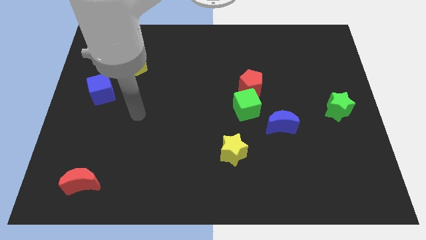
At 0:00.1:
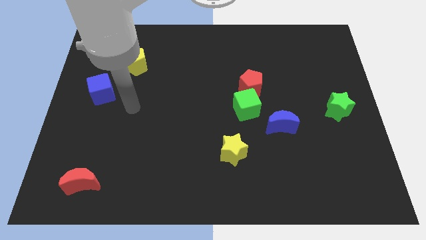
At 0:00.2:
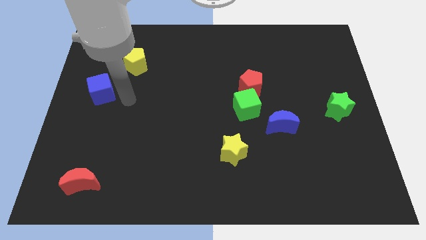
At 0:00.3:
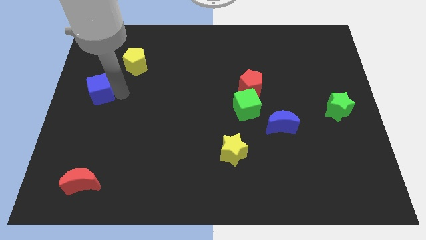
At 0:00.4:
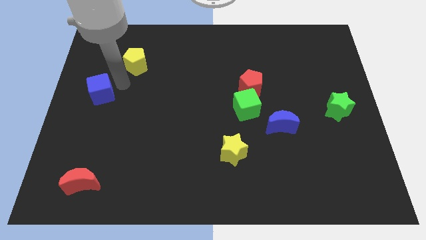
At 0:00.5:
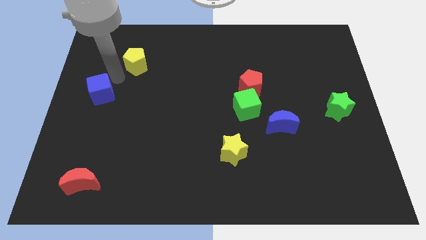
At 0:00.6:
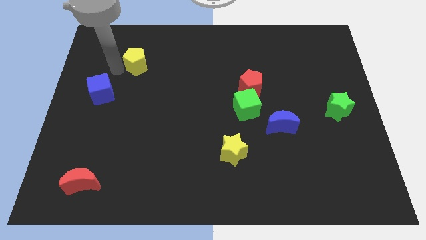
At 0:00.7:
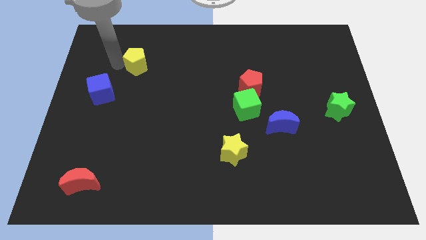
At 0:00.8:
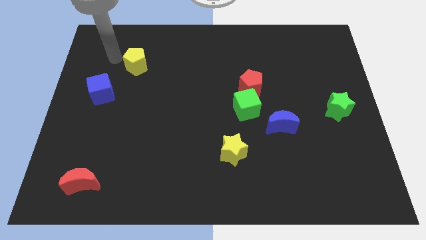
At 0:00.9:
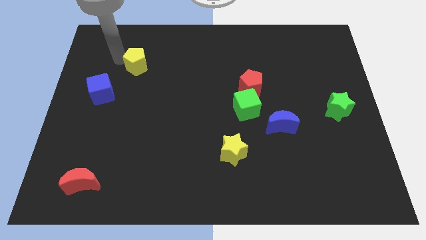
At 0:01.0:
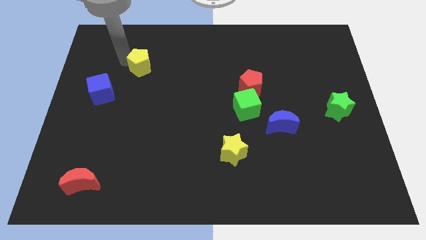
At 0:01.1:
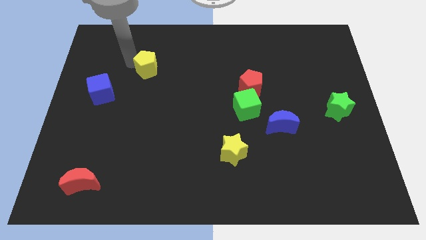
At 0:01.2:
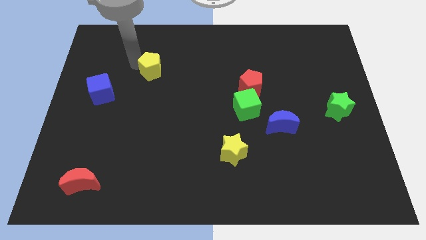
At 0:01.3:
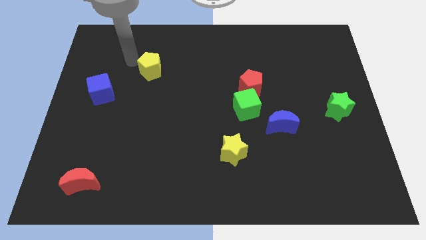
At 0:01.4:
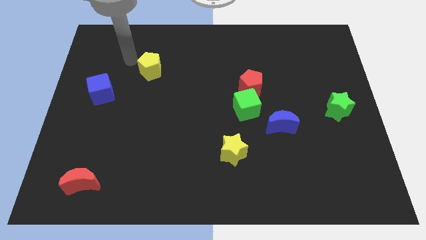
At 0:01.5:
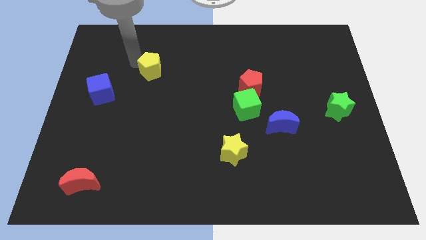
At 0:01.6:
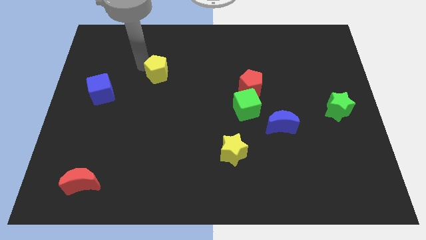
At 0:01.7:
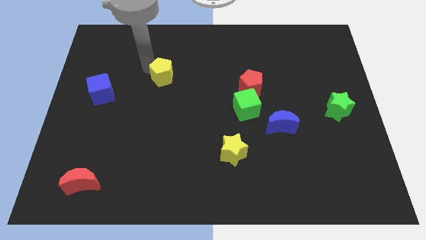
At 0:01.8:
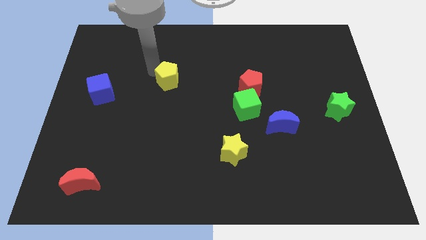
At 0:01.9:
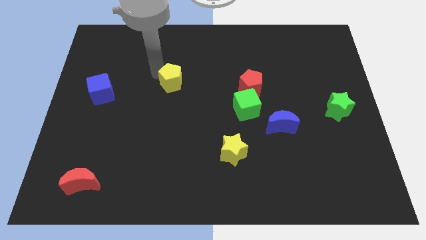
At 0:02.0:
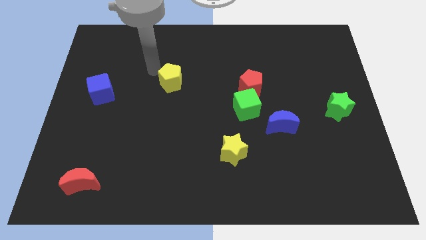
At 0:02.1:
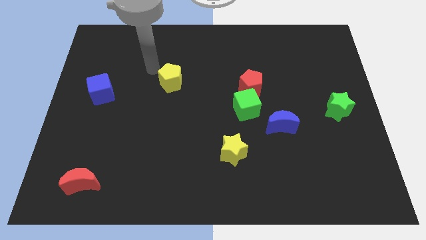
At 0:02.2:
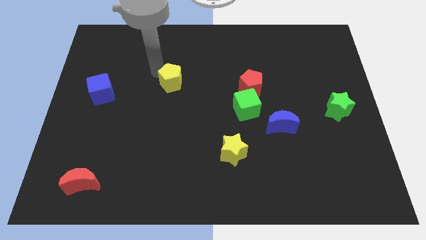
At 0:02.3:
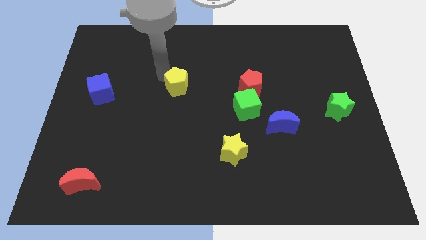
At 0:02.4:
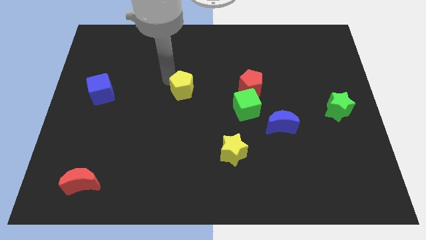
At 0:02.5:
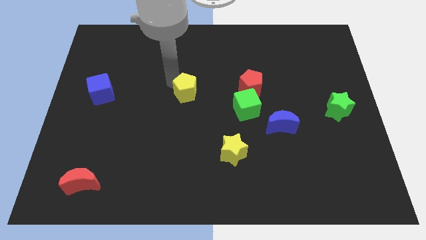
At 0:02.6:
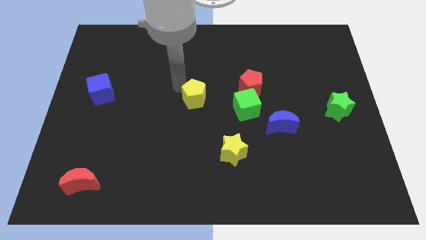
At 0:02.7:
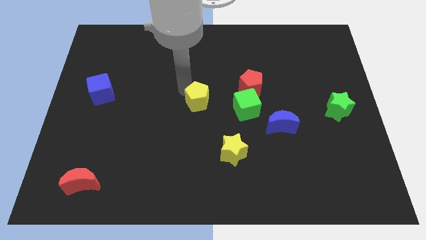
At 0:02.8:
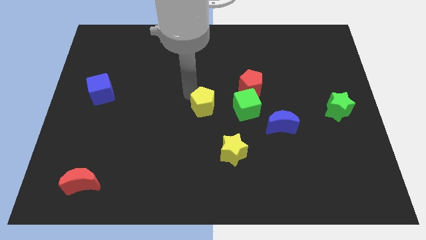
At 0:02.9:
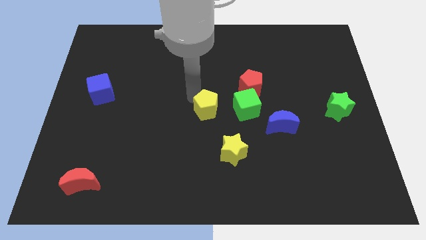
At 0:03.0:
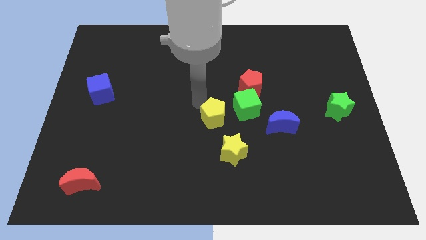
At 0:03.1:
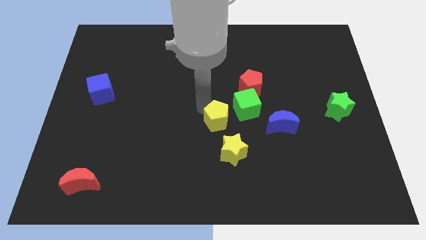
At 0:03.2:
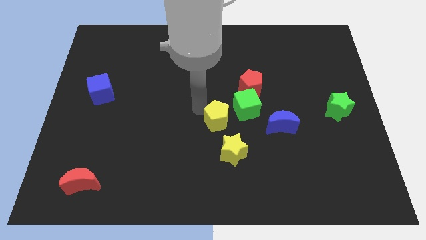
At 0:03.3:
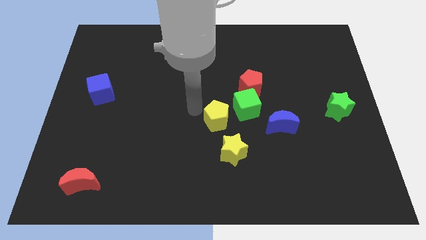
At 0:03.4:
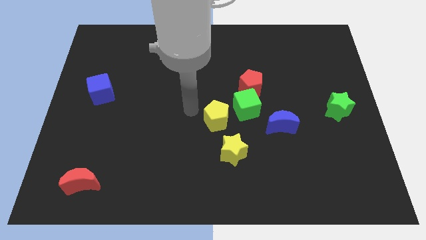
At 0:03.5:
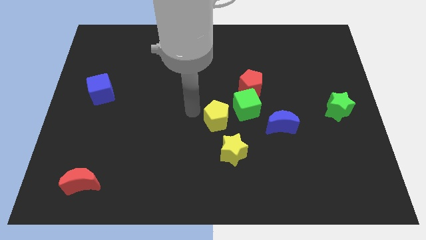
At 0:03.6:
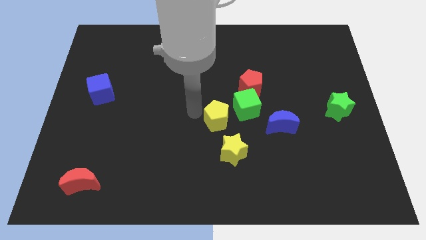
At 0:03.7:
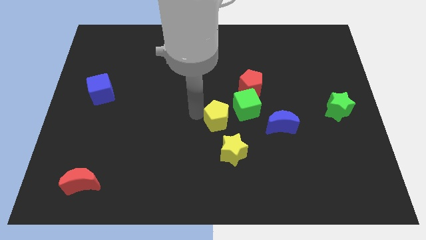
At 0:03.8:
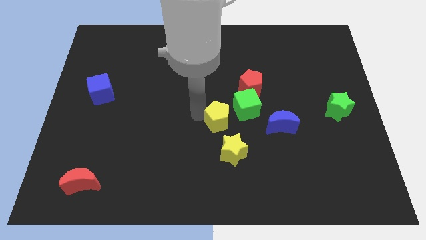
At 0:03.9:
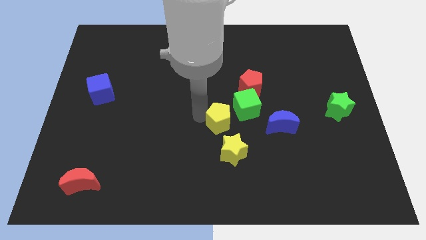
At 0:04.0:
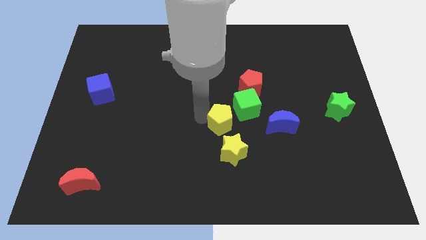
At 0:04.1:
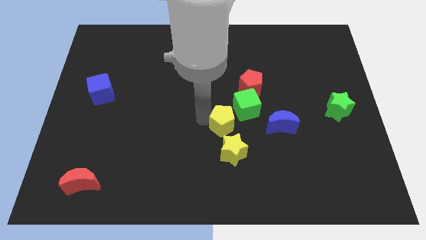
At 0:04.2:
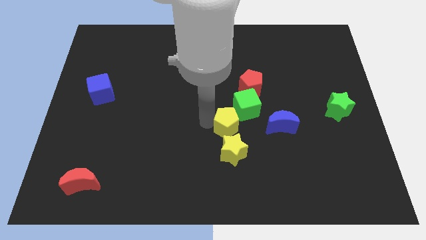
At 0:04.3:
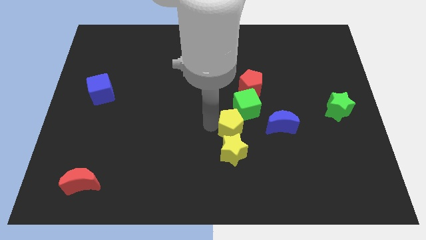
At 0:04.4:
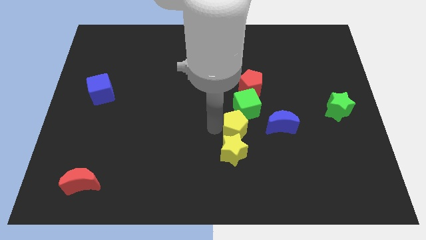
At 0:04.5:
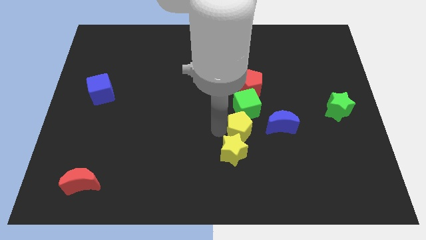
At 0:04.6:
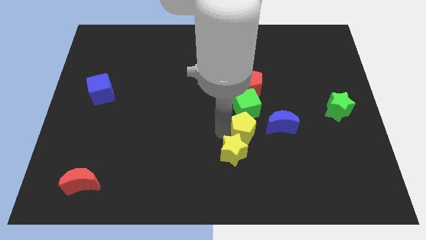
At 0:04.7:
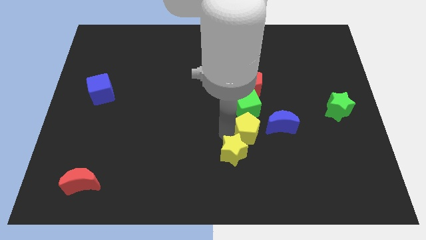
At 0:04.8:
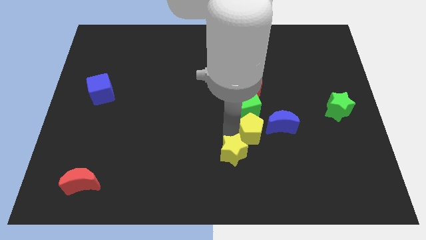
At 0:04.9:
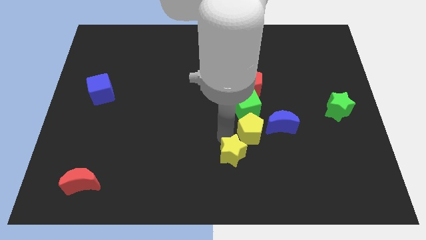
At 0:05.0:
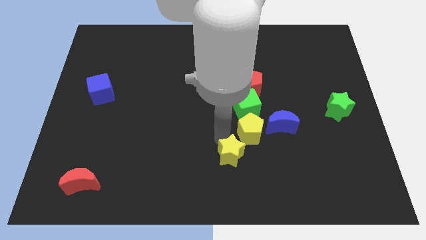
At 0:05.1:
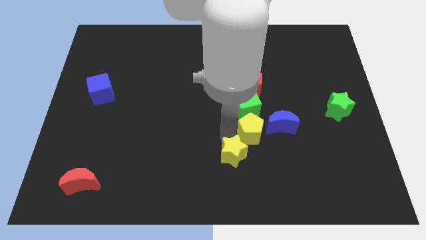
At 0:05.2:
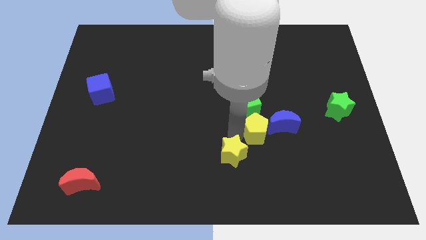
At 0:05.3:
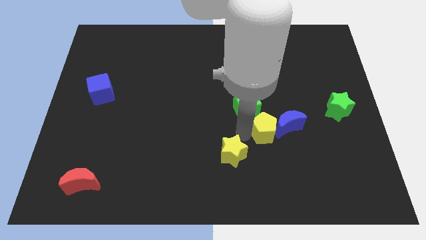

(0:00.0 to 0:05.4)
move the yellow pentagon towards the blue moon

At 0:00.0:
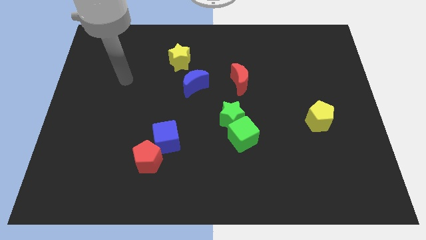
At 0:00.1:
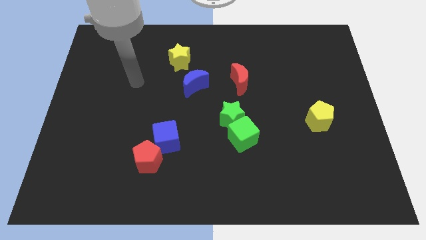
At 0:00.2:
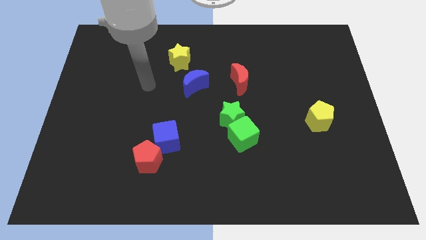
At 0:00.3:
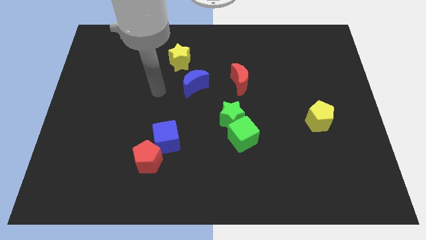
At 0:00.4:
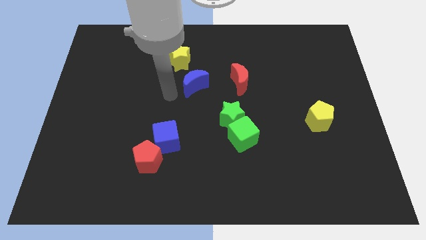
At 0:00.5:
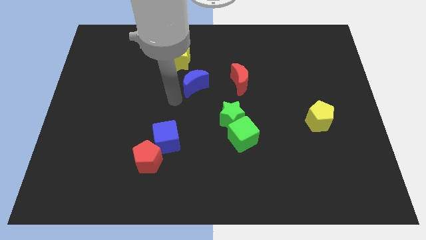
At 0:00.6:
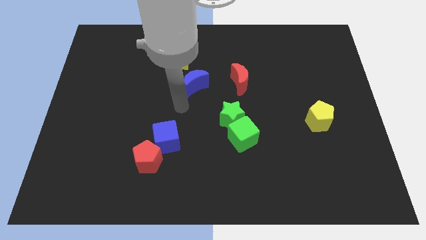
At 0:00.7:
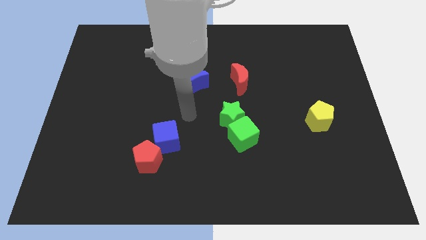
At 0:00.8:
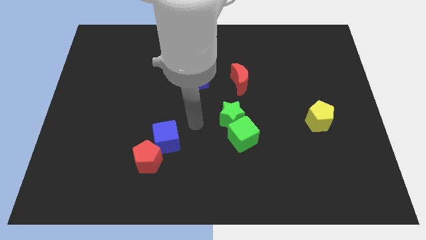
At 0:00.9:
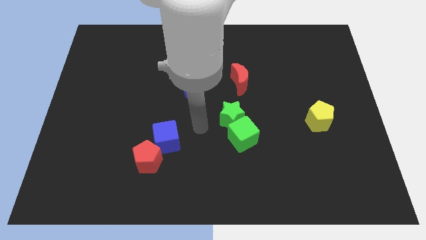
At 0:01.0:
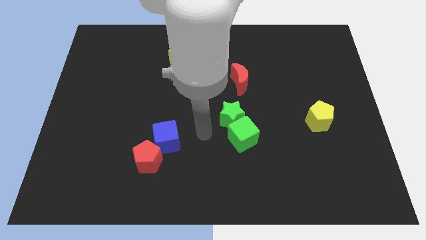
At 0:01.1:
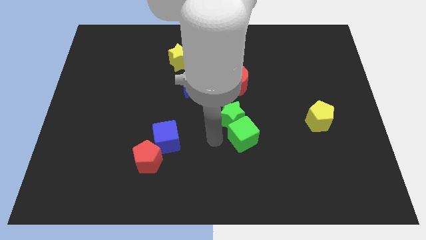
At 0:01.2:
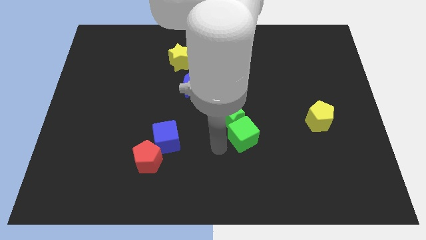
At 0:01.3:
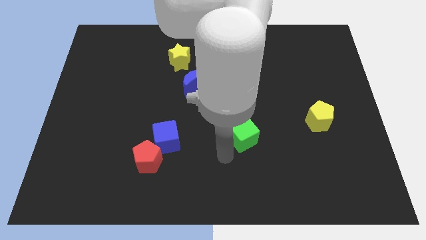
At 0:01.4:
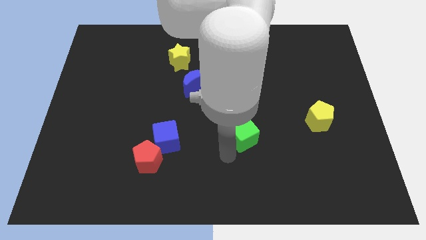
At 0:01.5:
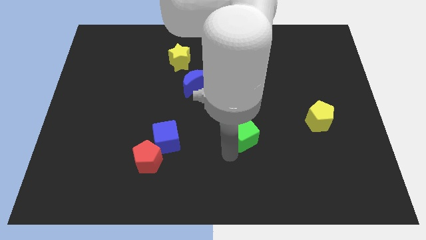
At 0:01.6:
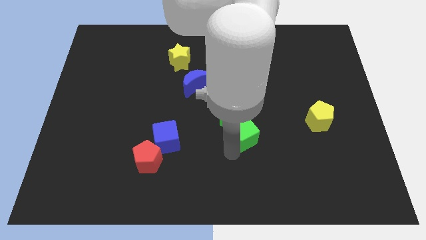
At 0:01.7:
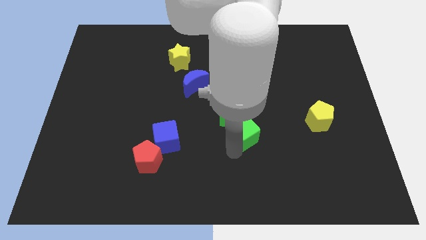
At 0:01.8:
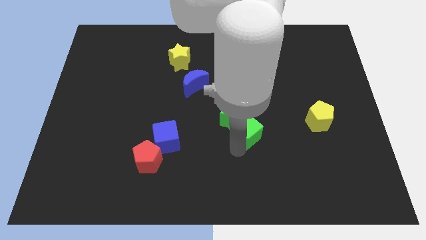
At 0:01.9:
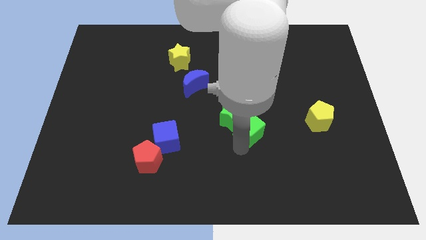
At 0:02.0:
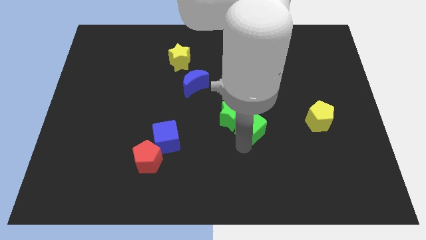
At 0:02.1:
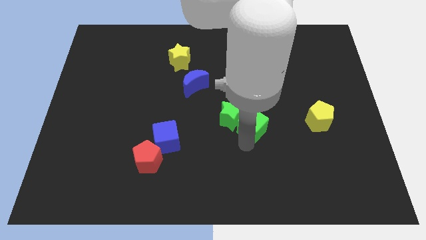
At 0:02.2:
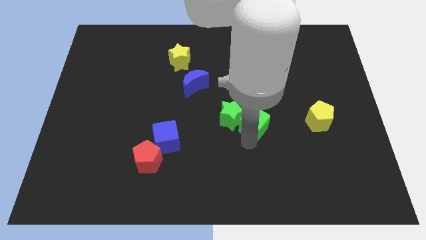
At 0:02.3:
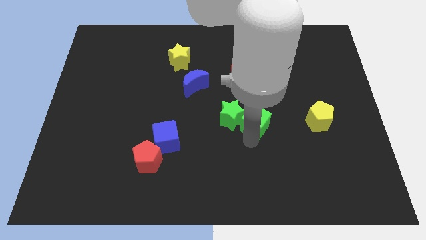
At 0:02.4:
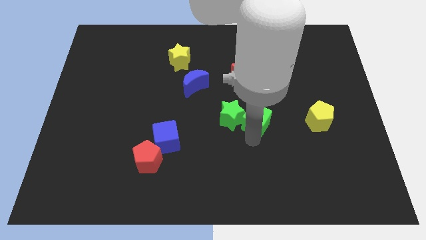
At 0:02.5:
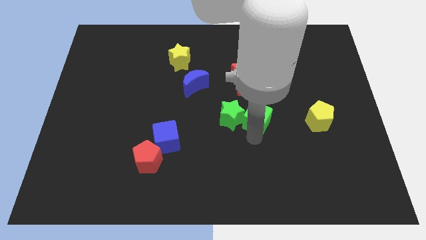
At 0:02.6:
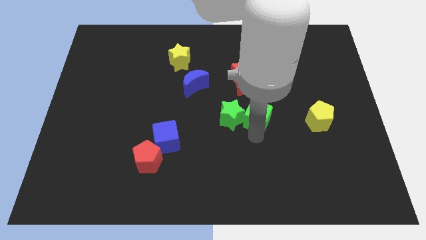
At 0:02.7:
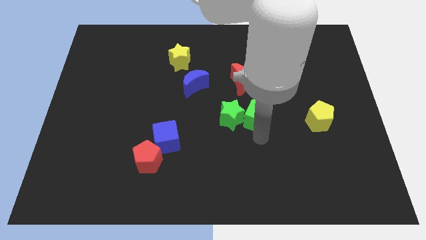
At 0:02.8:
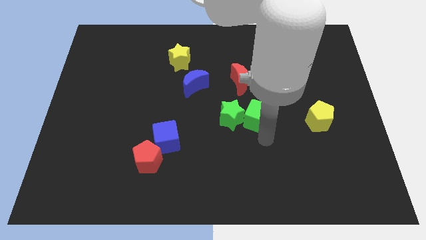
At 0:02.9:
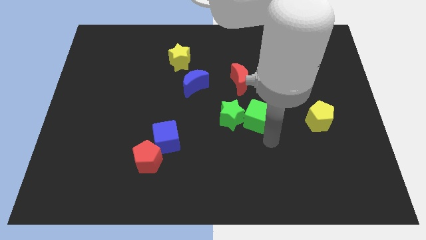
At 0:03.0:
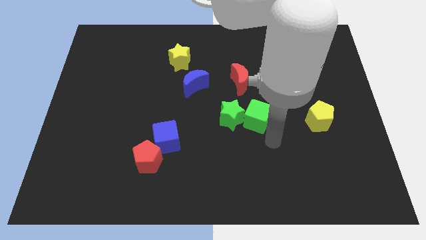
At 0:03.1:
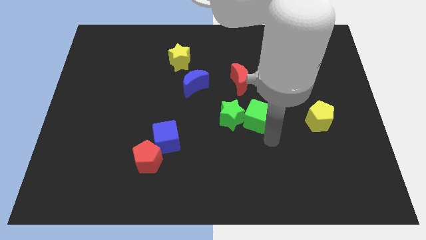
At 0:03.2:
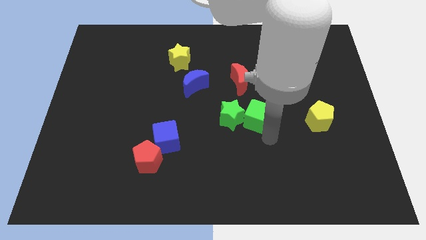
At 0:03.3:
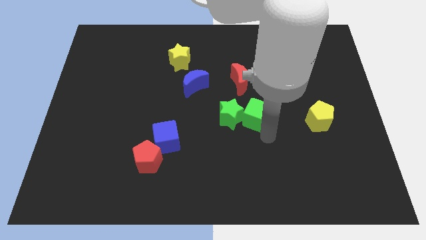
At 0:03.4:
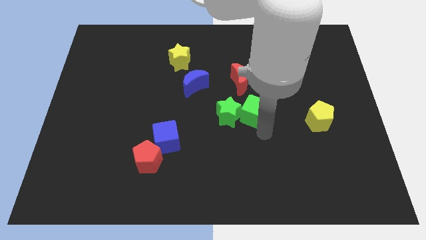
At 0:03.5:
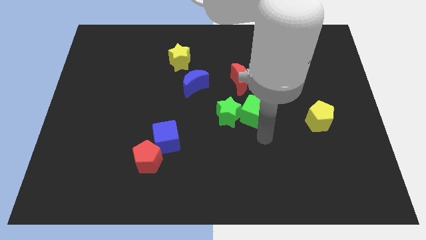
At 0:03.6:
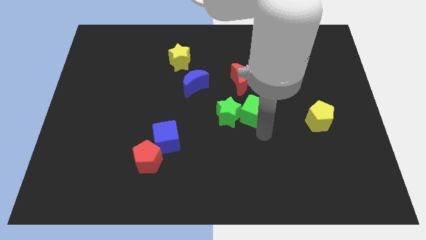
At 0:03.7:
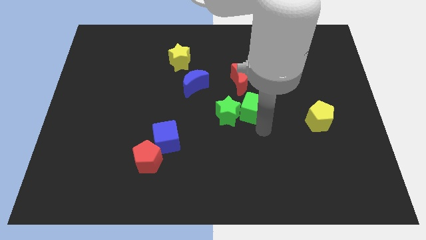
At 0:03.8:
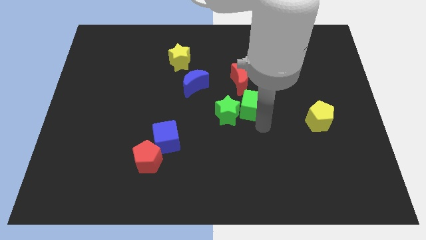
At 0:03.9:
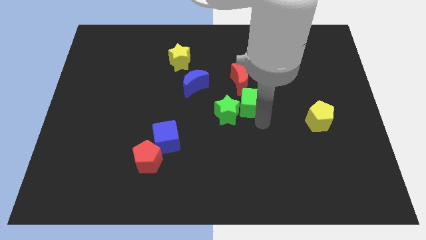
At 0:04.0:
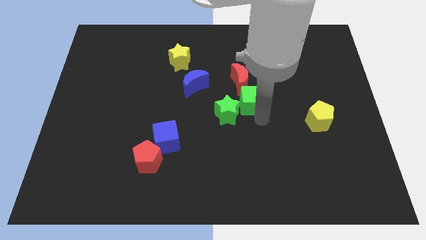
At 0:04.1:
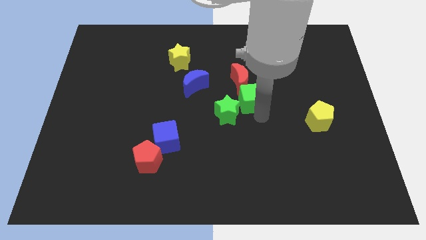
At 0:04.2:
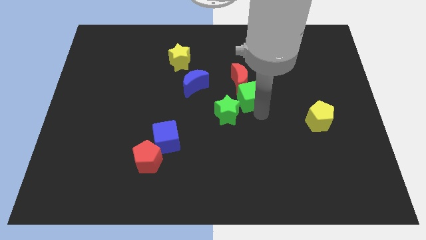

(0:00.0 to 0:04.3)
push the green cube next to the red moon
